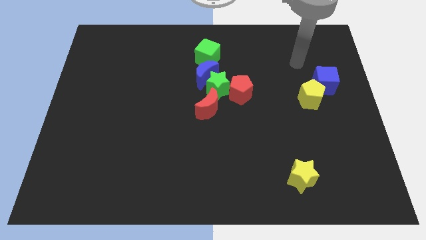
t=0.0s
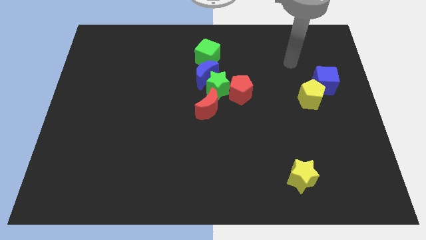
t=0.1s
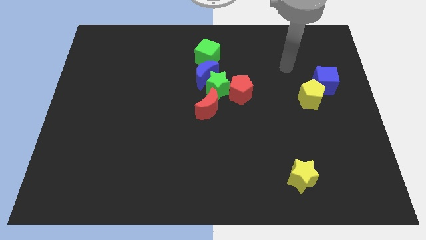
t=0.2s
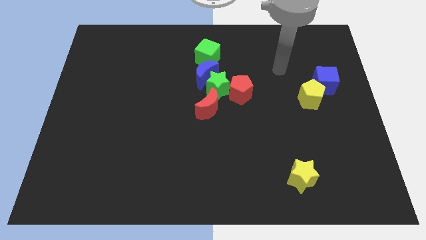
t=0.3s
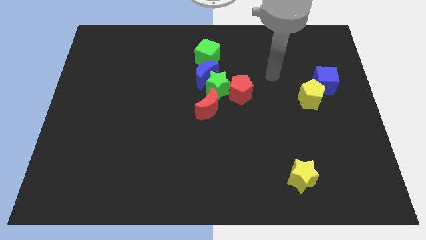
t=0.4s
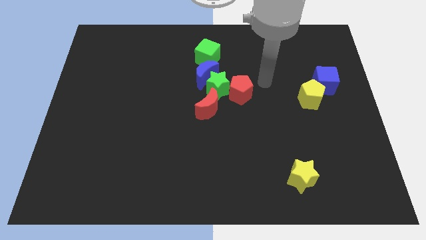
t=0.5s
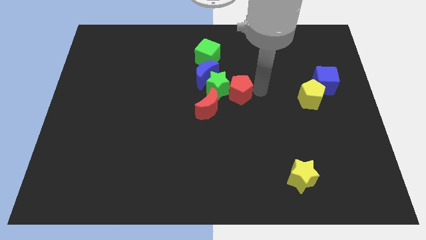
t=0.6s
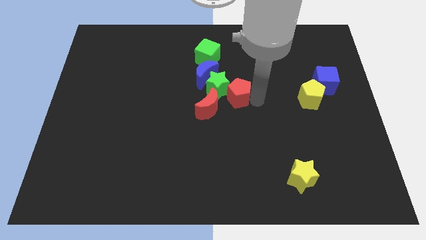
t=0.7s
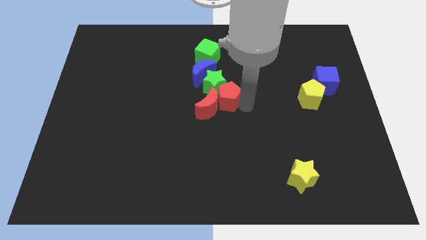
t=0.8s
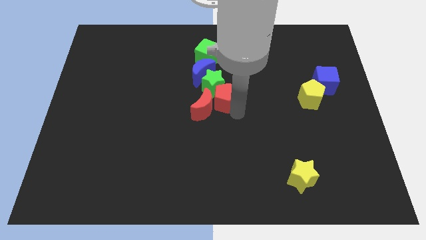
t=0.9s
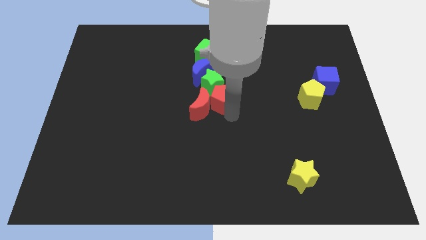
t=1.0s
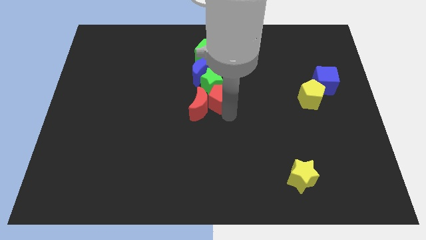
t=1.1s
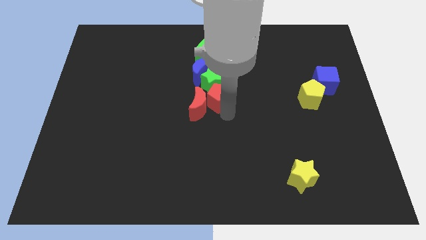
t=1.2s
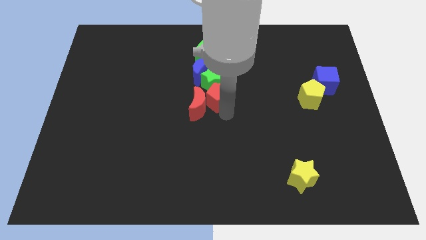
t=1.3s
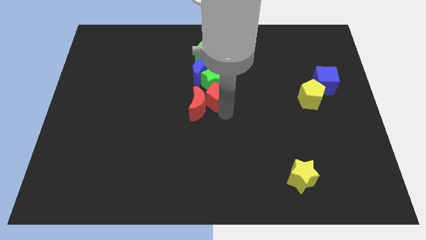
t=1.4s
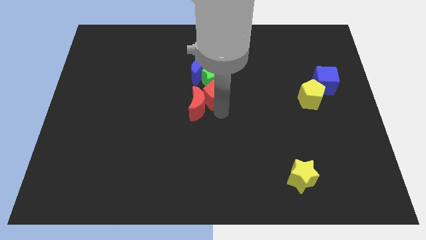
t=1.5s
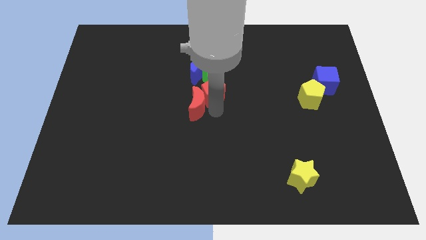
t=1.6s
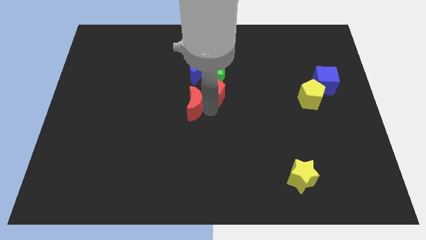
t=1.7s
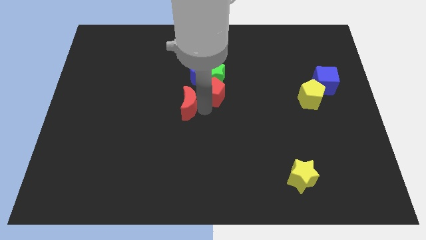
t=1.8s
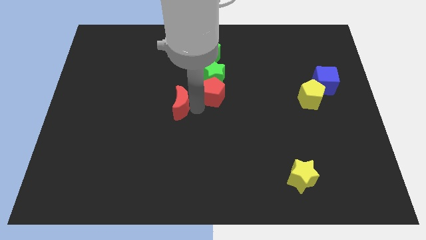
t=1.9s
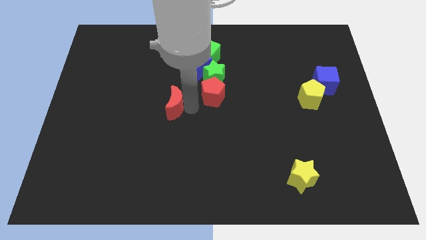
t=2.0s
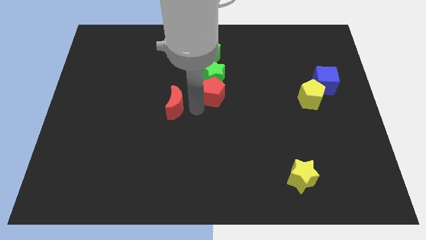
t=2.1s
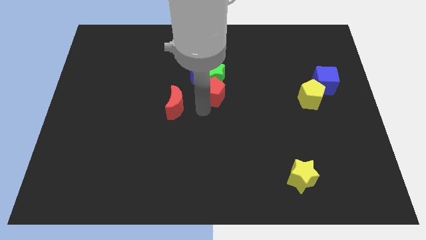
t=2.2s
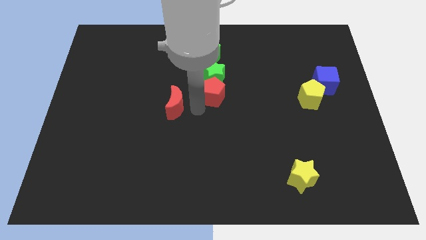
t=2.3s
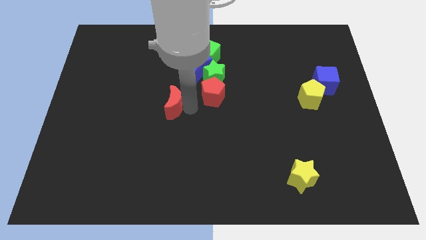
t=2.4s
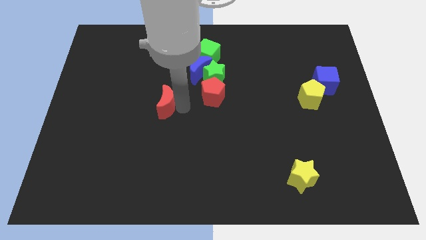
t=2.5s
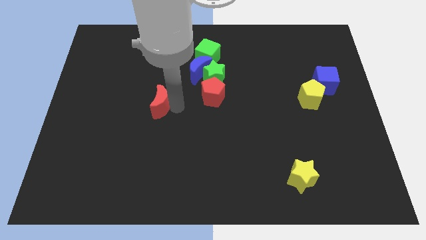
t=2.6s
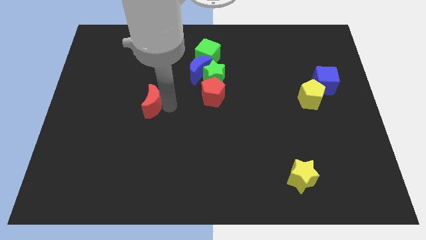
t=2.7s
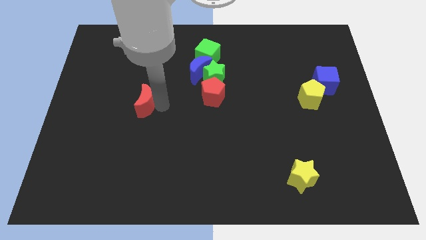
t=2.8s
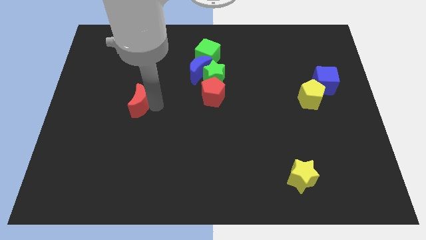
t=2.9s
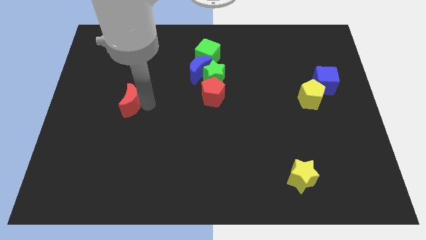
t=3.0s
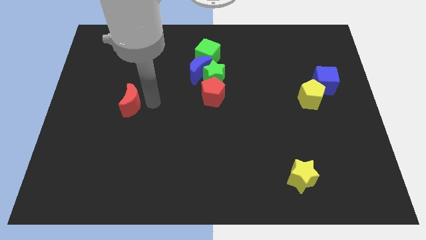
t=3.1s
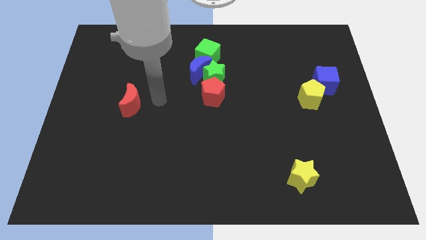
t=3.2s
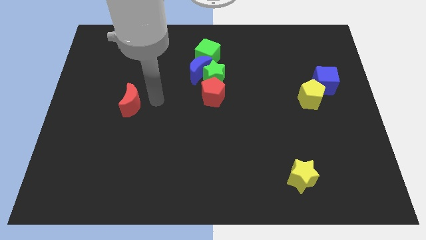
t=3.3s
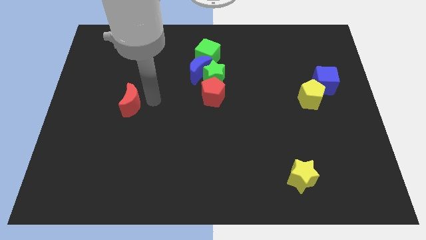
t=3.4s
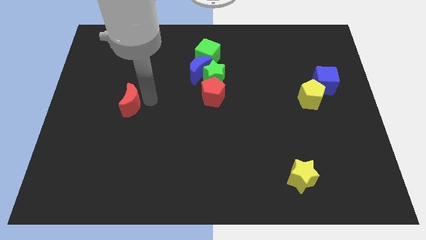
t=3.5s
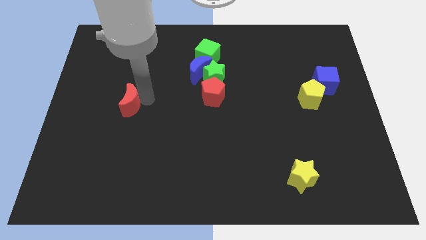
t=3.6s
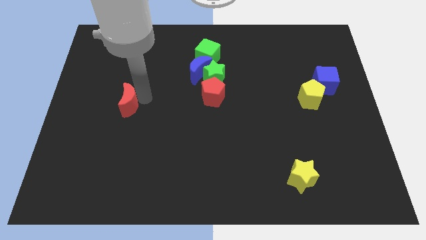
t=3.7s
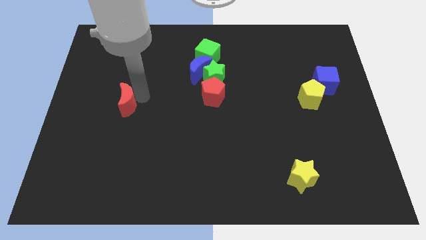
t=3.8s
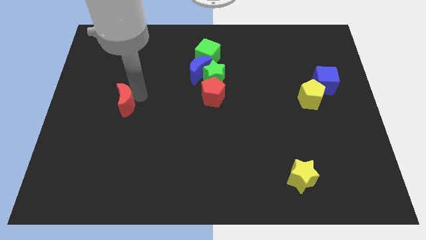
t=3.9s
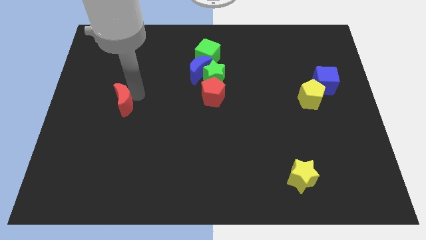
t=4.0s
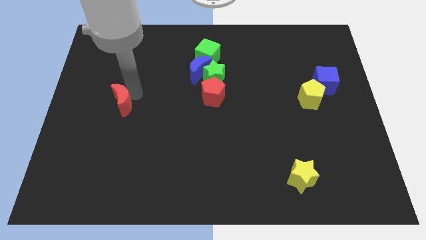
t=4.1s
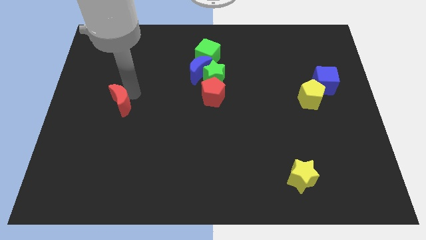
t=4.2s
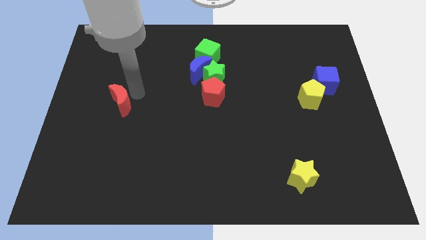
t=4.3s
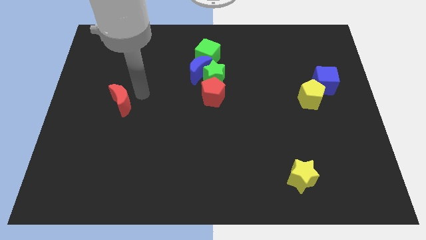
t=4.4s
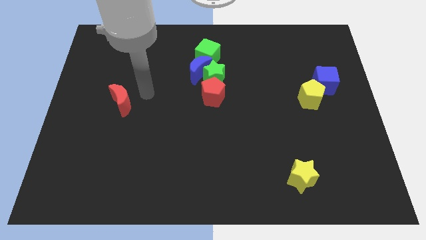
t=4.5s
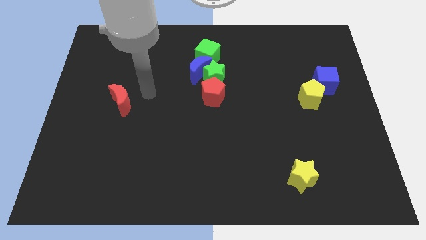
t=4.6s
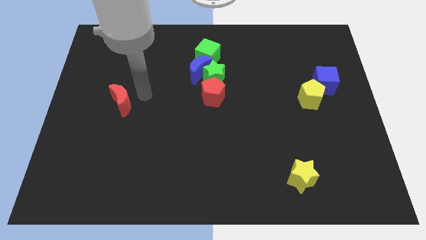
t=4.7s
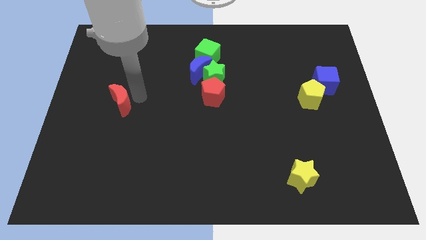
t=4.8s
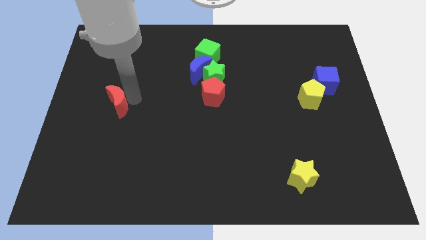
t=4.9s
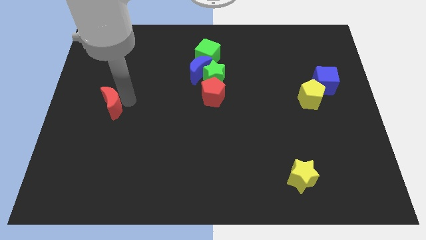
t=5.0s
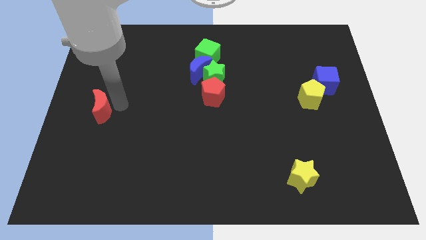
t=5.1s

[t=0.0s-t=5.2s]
slide the red moon to the left side of the board

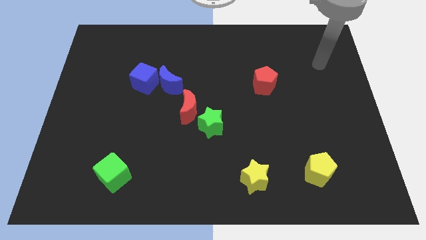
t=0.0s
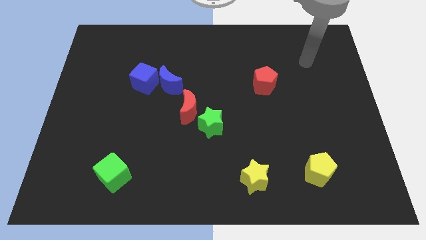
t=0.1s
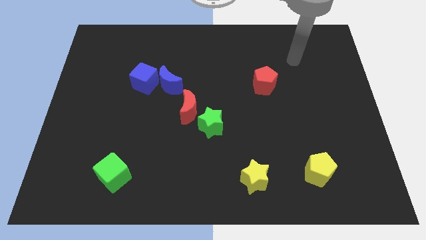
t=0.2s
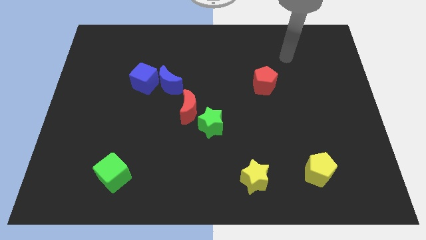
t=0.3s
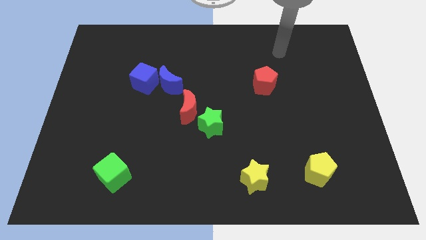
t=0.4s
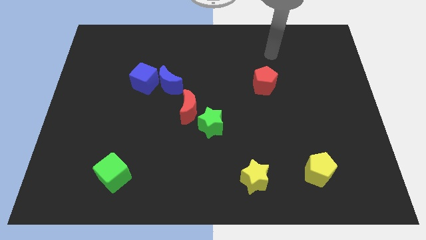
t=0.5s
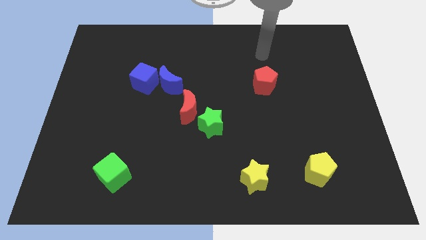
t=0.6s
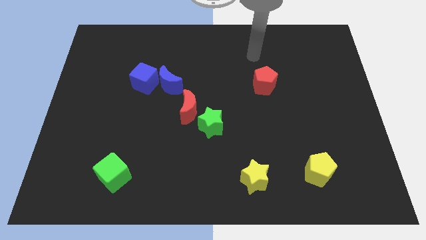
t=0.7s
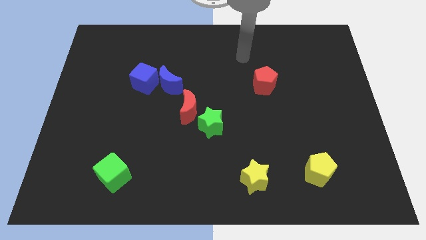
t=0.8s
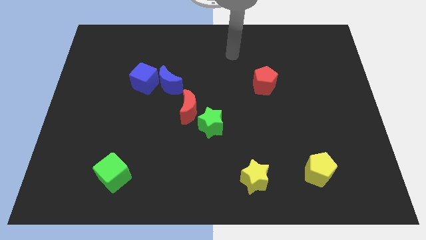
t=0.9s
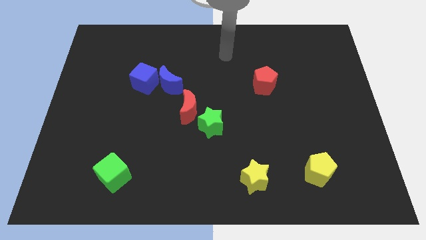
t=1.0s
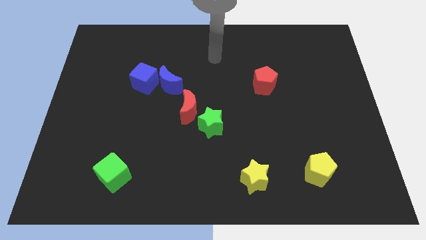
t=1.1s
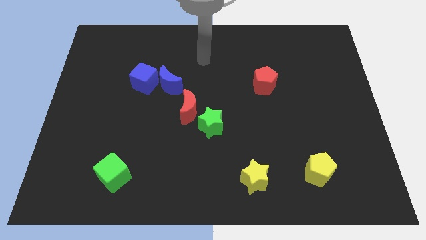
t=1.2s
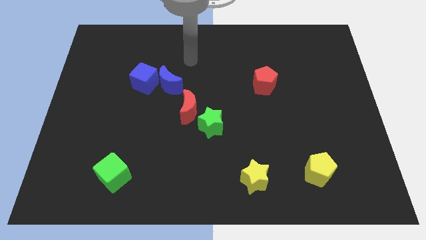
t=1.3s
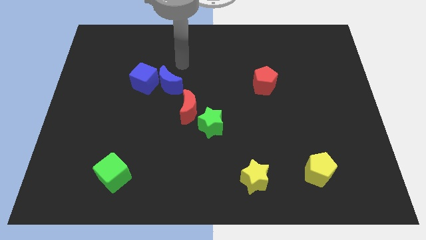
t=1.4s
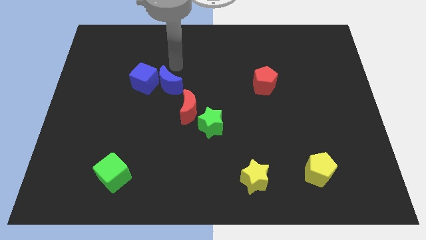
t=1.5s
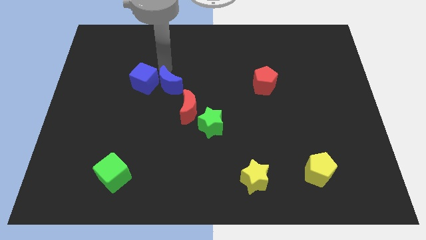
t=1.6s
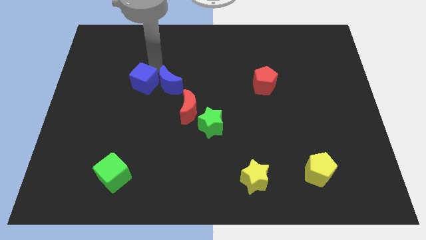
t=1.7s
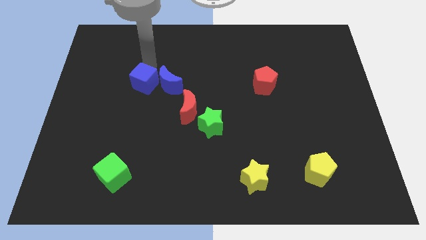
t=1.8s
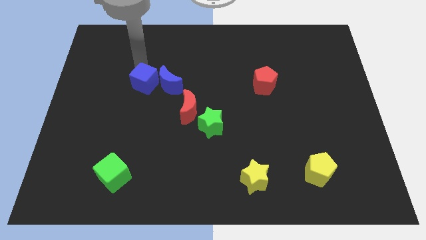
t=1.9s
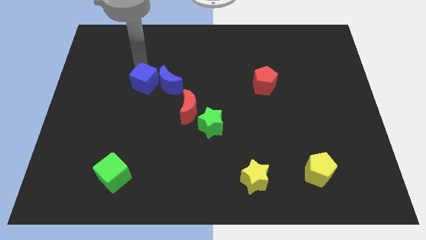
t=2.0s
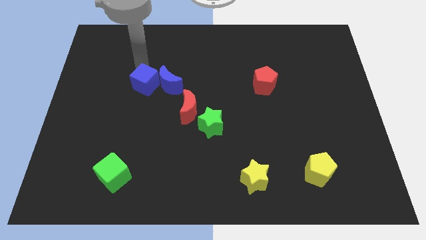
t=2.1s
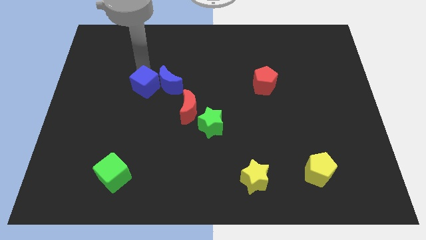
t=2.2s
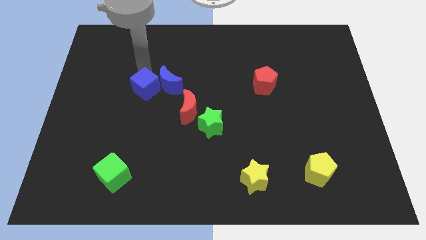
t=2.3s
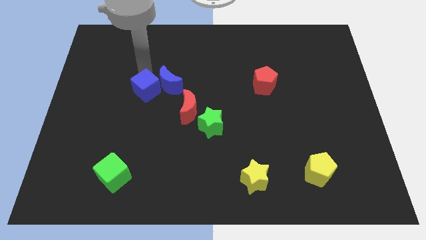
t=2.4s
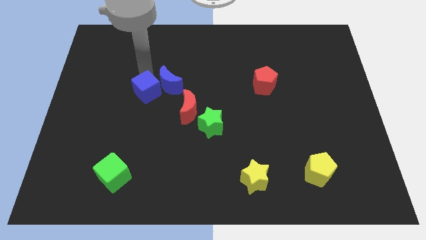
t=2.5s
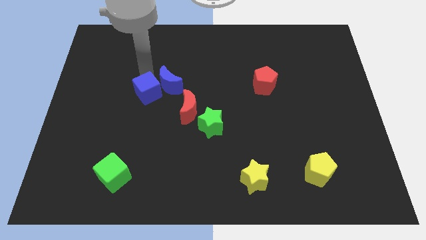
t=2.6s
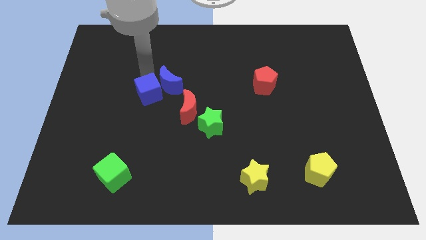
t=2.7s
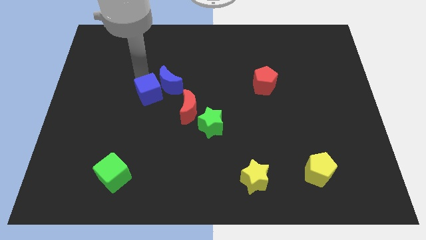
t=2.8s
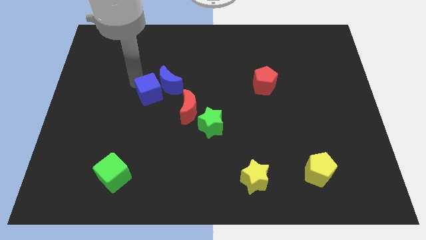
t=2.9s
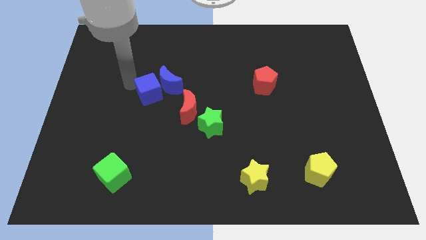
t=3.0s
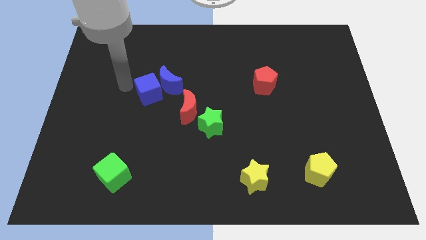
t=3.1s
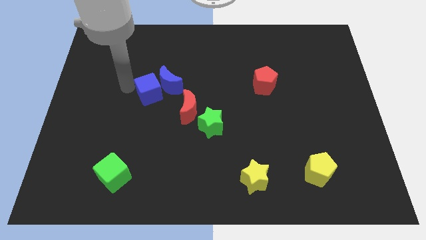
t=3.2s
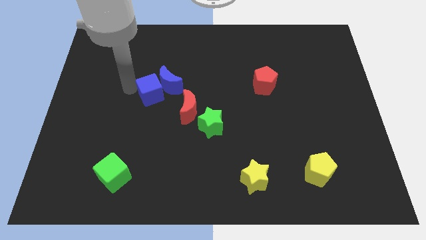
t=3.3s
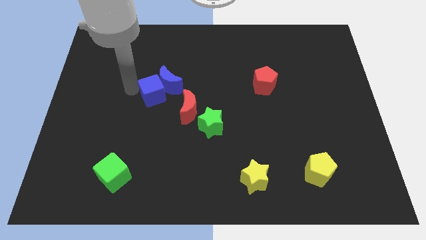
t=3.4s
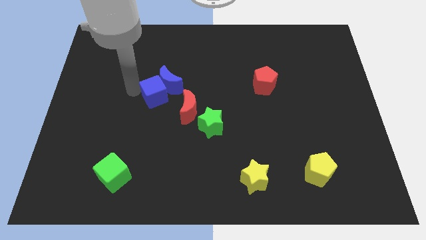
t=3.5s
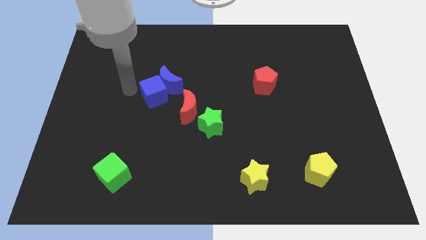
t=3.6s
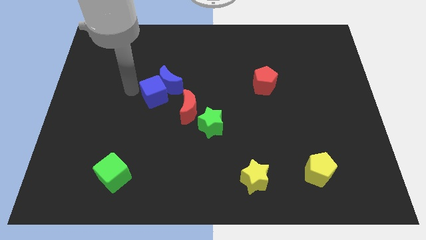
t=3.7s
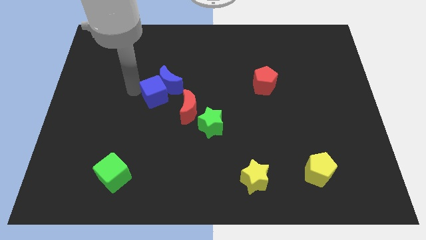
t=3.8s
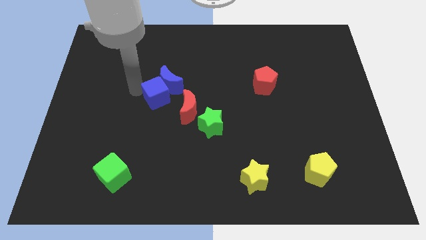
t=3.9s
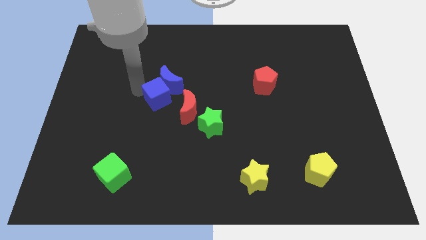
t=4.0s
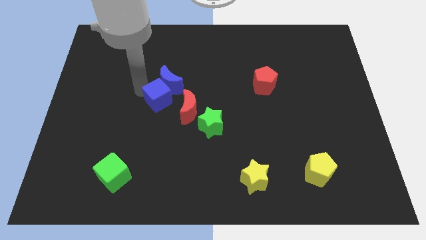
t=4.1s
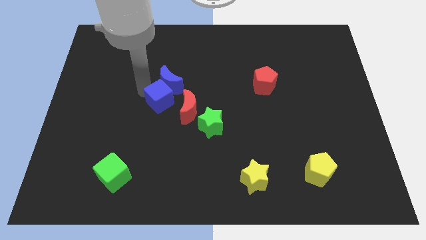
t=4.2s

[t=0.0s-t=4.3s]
slide the blue cube to the center
